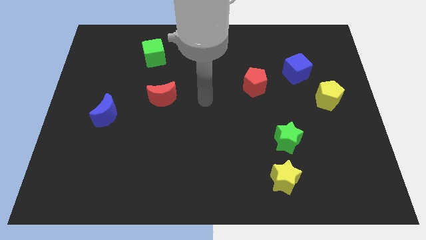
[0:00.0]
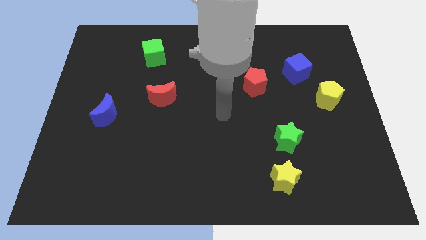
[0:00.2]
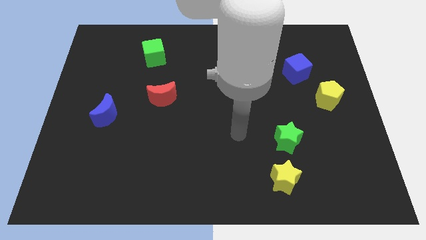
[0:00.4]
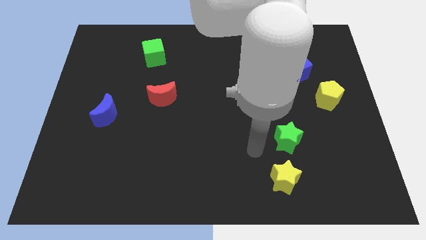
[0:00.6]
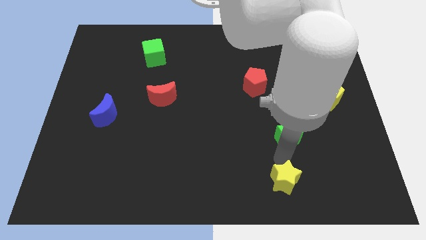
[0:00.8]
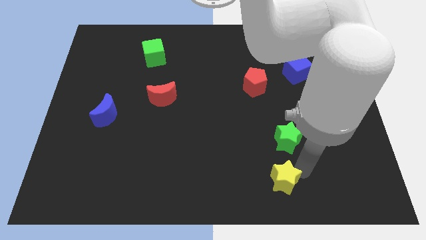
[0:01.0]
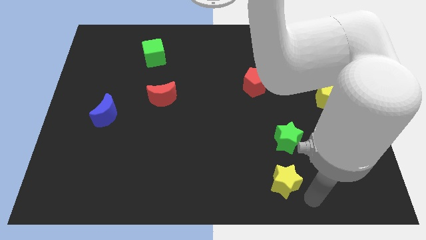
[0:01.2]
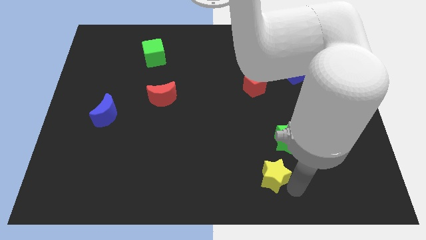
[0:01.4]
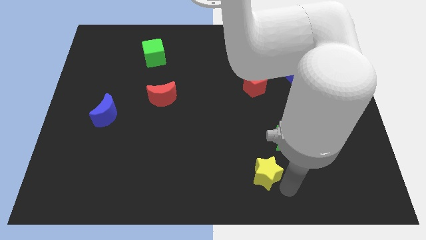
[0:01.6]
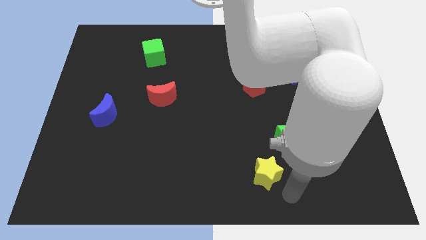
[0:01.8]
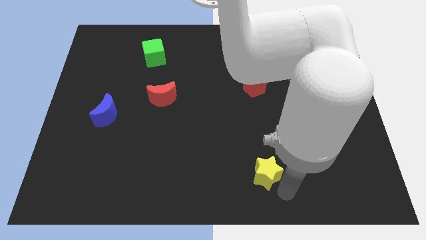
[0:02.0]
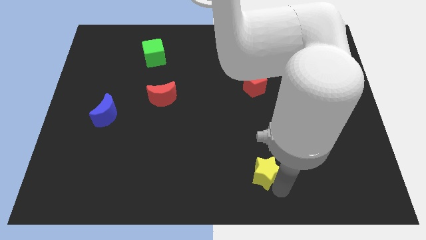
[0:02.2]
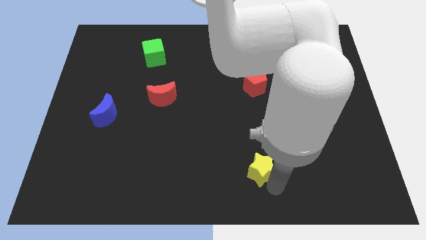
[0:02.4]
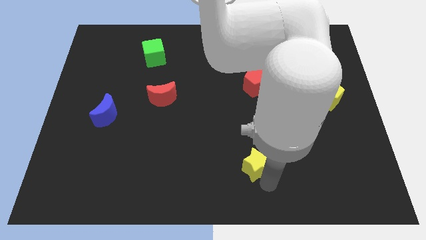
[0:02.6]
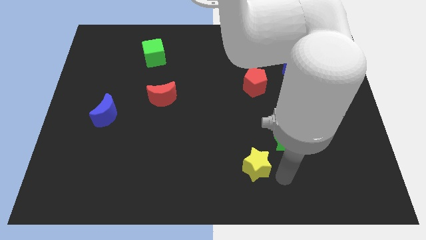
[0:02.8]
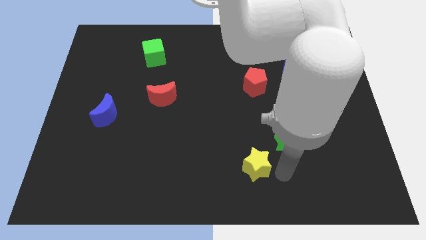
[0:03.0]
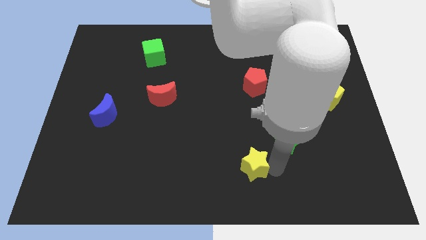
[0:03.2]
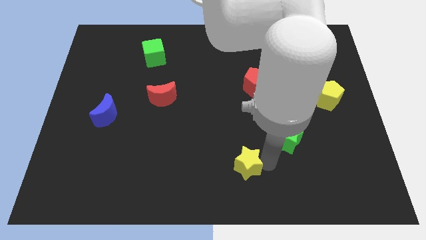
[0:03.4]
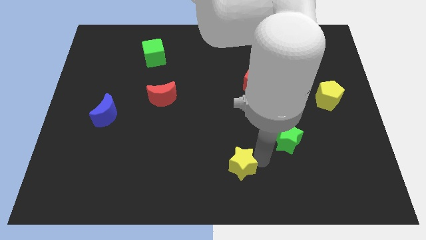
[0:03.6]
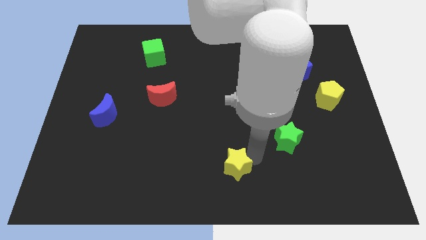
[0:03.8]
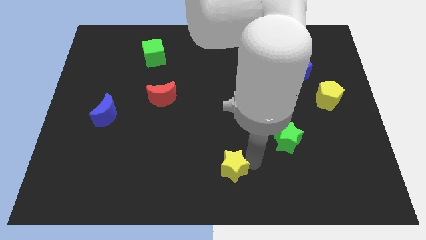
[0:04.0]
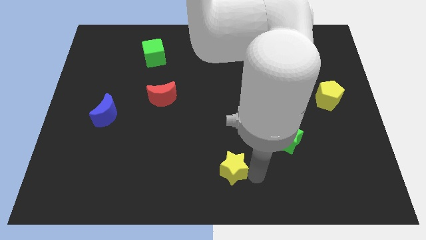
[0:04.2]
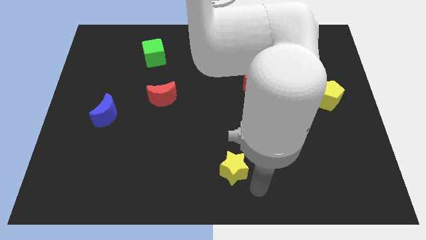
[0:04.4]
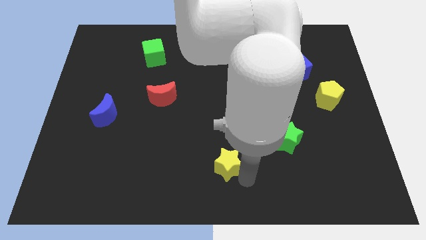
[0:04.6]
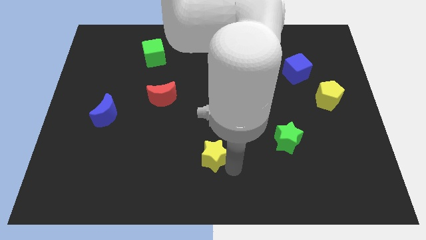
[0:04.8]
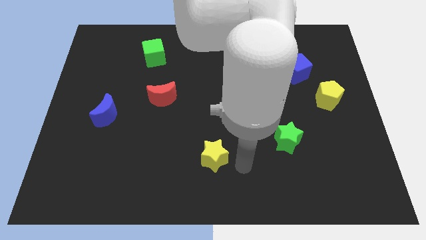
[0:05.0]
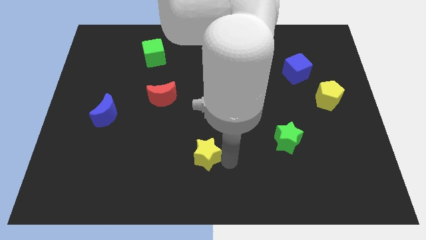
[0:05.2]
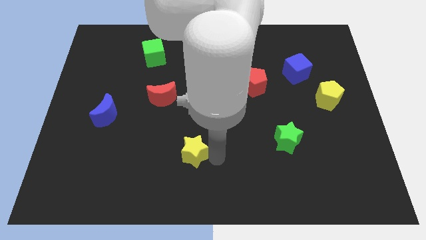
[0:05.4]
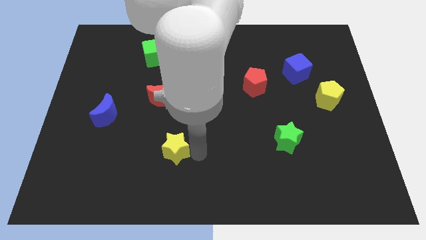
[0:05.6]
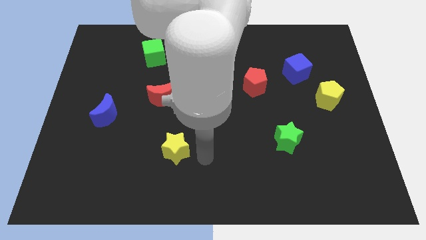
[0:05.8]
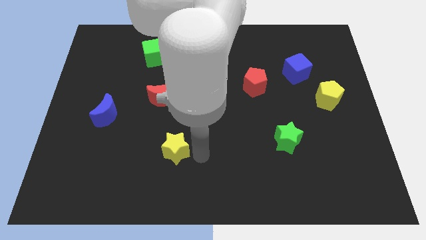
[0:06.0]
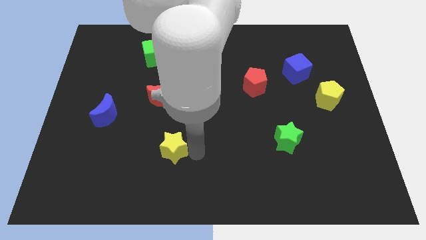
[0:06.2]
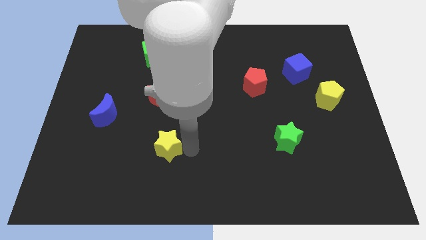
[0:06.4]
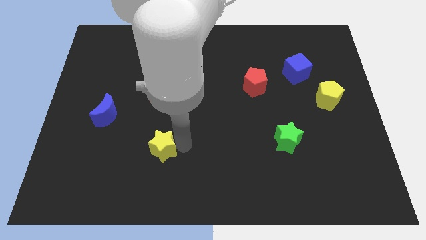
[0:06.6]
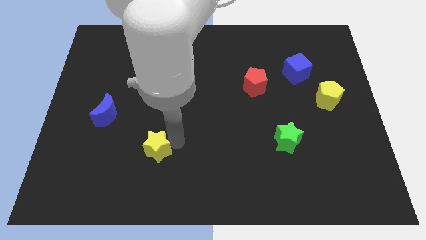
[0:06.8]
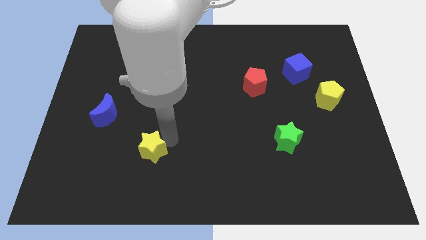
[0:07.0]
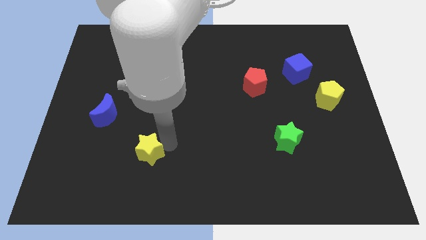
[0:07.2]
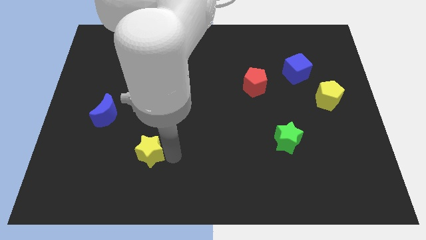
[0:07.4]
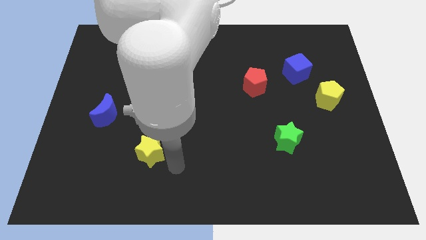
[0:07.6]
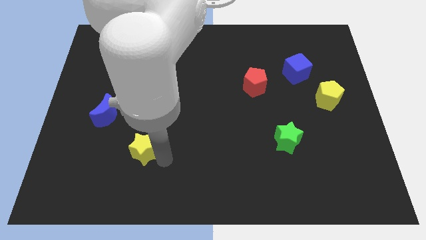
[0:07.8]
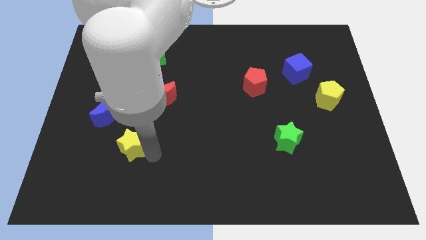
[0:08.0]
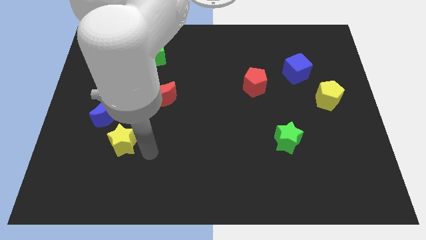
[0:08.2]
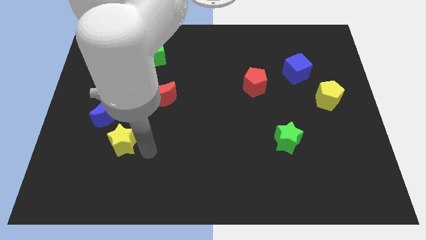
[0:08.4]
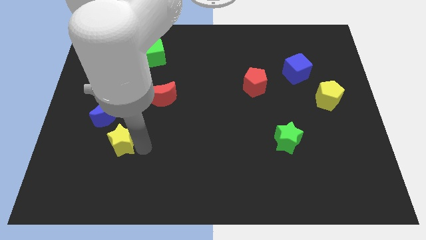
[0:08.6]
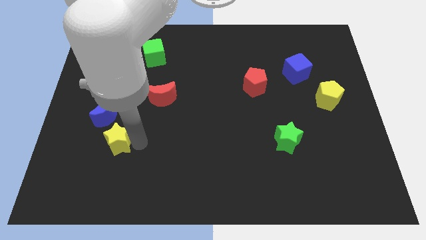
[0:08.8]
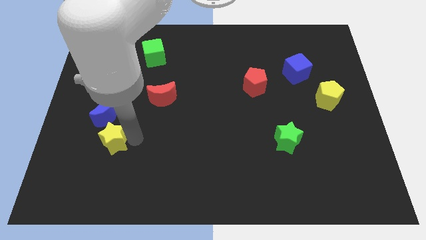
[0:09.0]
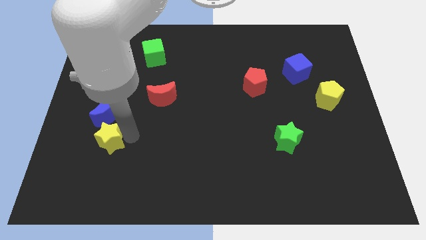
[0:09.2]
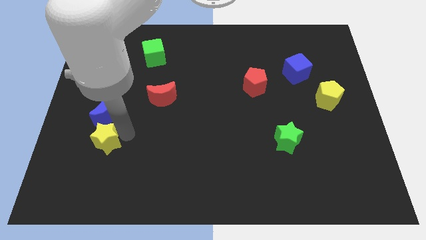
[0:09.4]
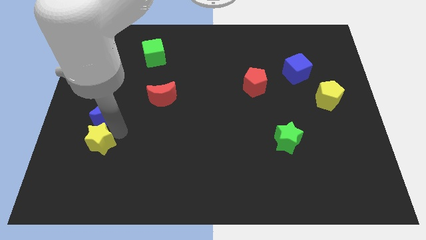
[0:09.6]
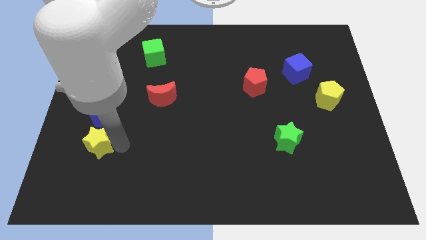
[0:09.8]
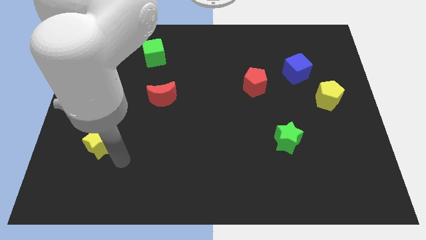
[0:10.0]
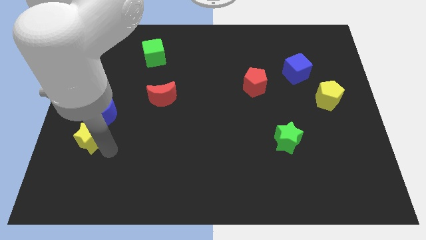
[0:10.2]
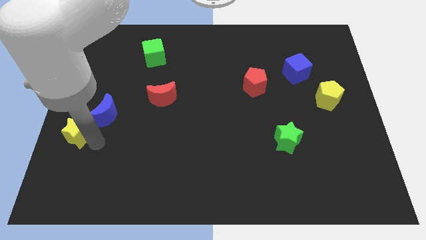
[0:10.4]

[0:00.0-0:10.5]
slide the yellow star to the center left

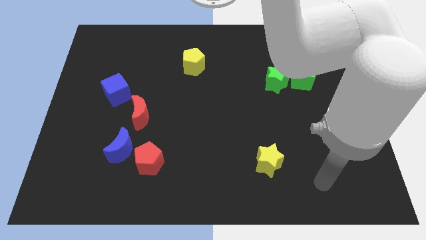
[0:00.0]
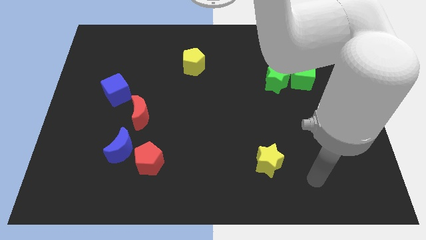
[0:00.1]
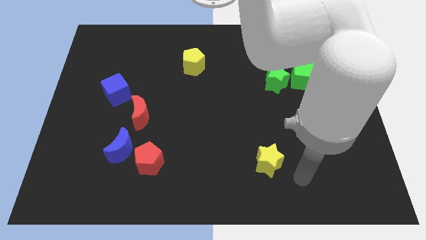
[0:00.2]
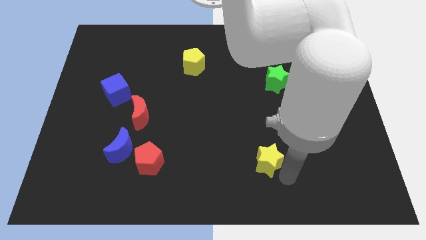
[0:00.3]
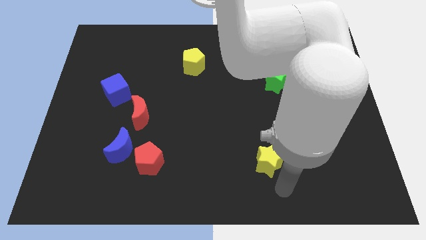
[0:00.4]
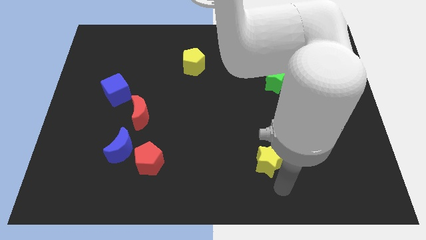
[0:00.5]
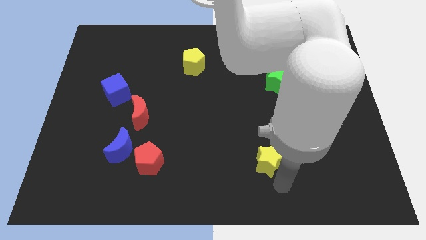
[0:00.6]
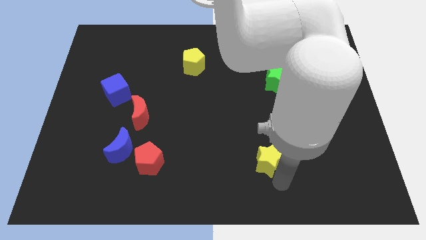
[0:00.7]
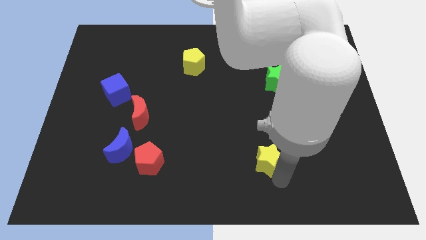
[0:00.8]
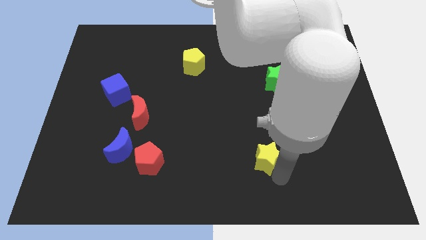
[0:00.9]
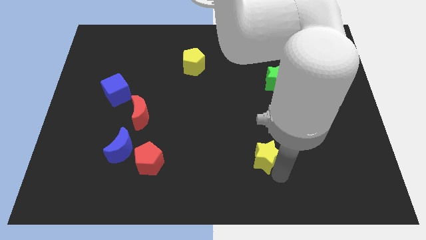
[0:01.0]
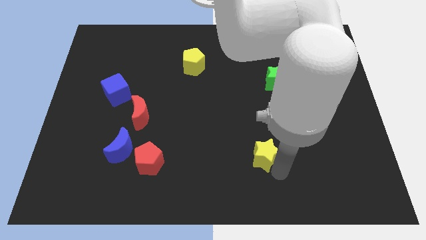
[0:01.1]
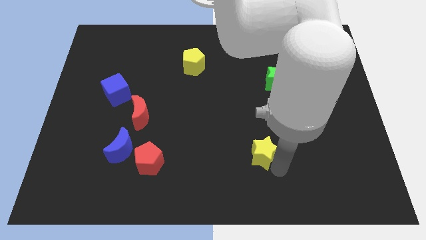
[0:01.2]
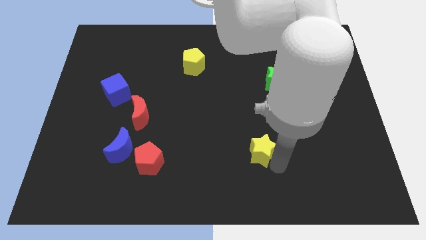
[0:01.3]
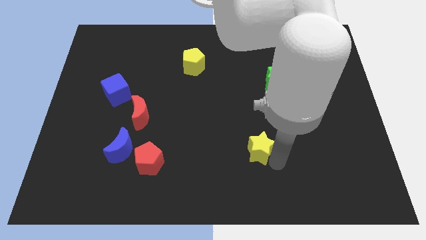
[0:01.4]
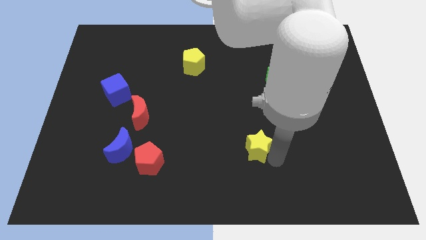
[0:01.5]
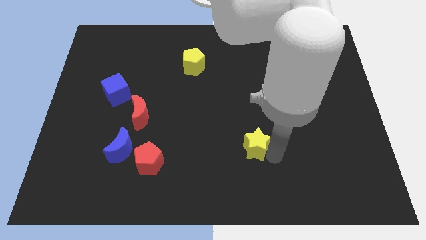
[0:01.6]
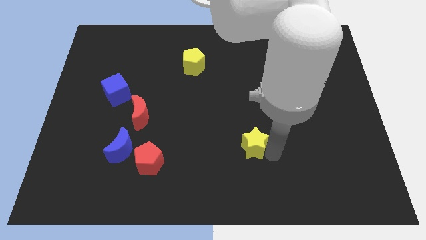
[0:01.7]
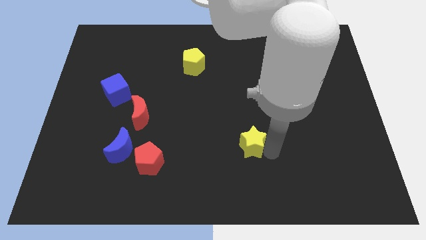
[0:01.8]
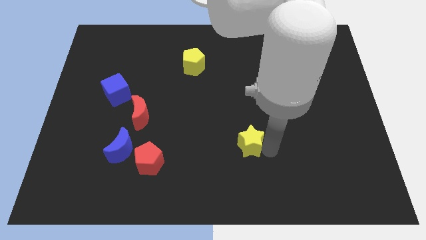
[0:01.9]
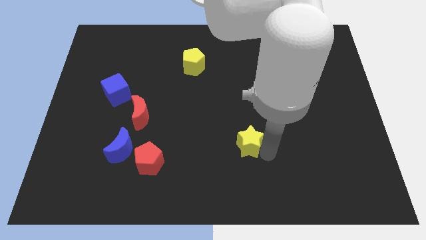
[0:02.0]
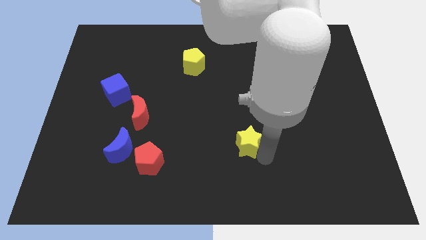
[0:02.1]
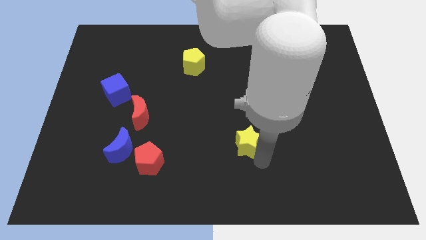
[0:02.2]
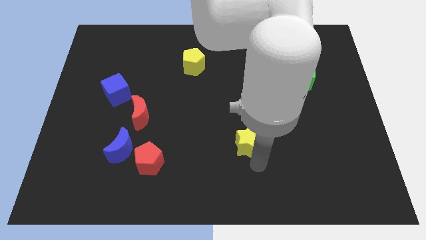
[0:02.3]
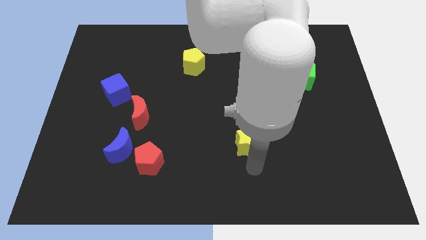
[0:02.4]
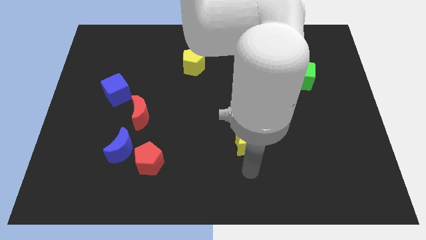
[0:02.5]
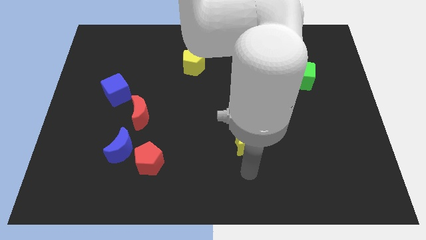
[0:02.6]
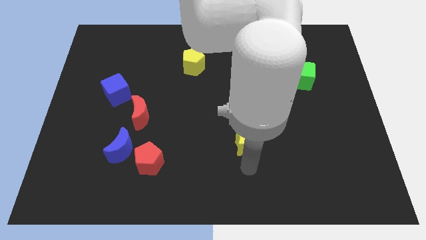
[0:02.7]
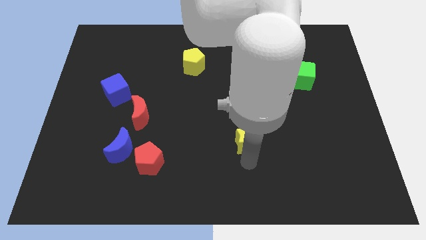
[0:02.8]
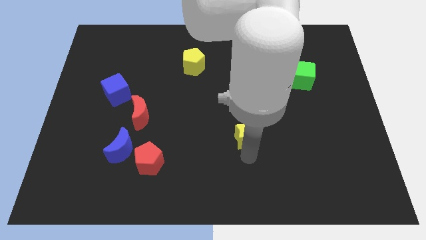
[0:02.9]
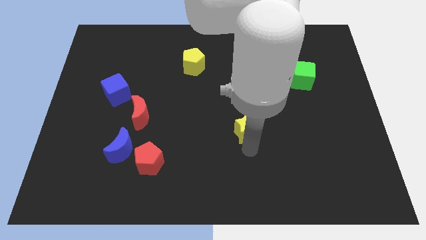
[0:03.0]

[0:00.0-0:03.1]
push the yellow star to the middle
